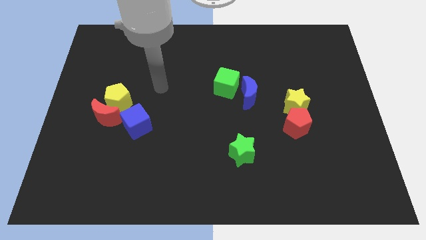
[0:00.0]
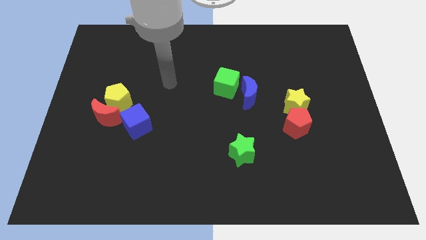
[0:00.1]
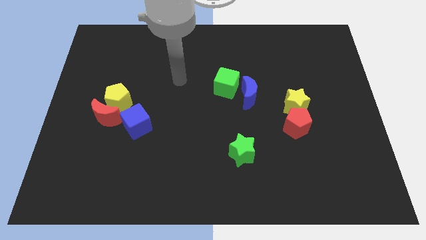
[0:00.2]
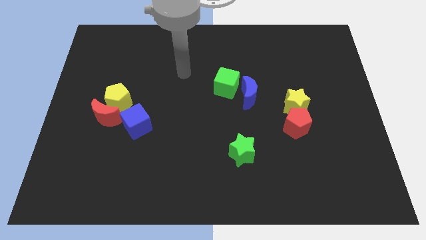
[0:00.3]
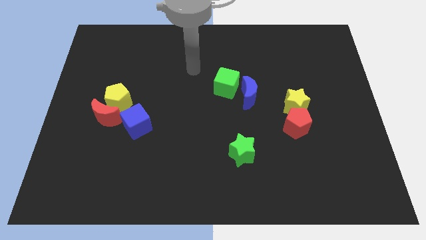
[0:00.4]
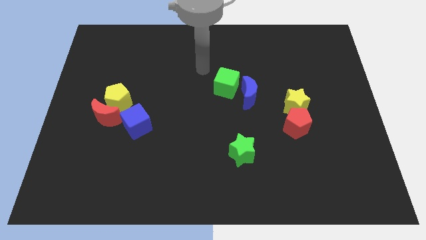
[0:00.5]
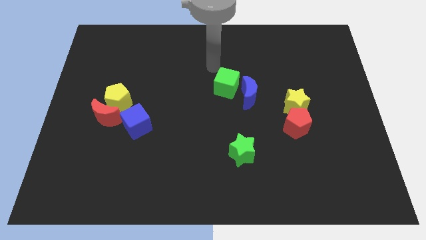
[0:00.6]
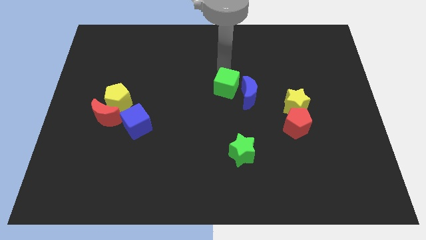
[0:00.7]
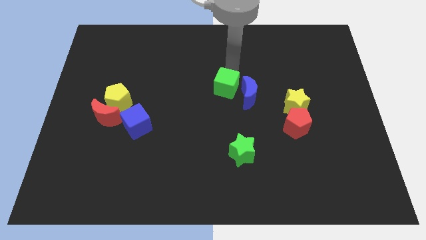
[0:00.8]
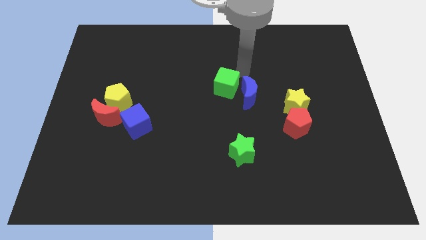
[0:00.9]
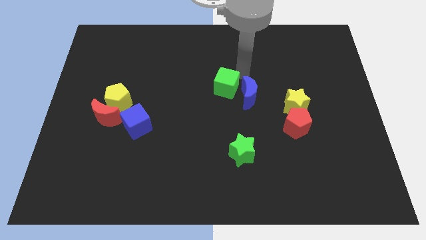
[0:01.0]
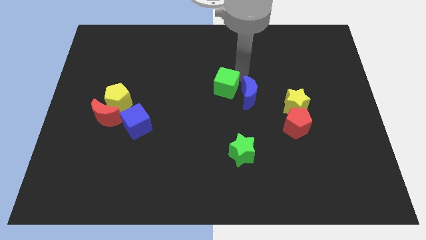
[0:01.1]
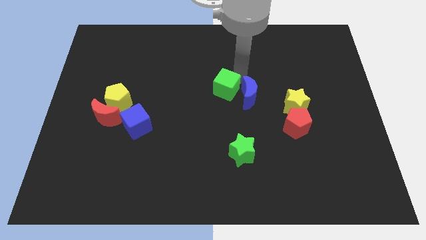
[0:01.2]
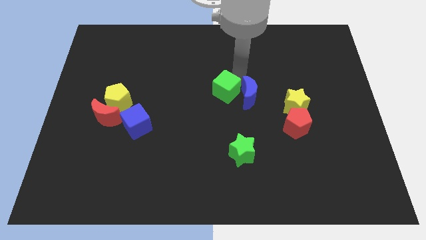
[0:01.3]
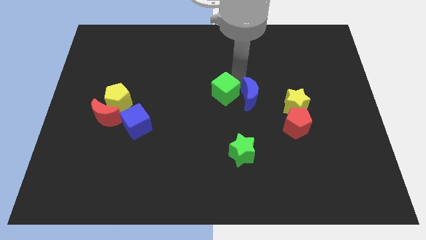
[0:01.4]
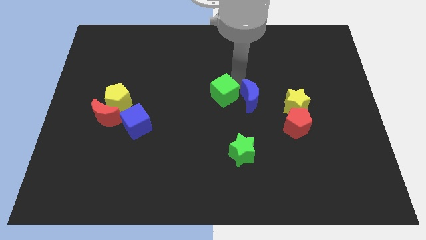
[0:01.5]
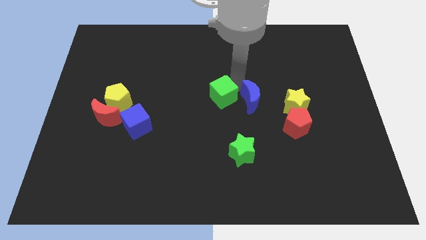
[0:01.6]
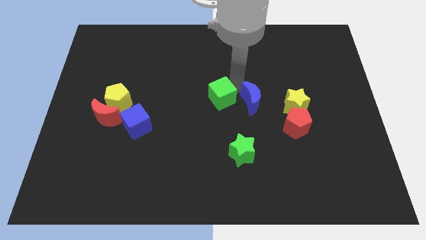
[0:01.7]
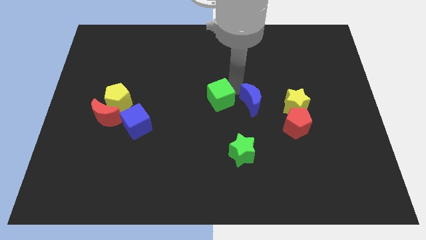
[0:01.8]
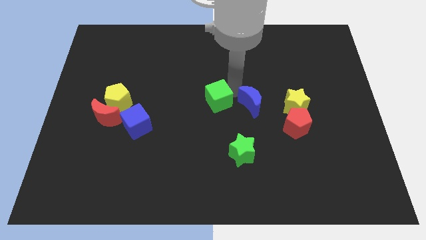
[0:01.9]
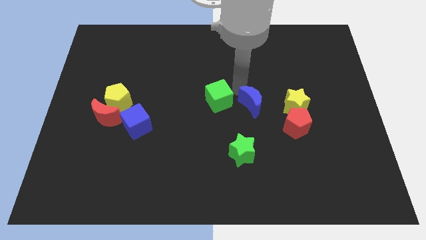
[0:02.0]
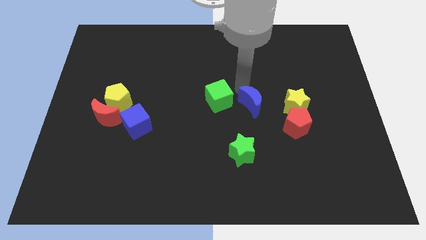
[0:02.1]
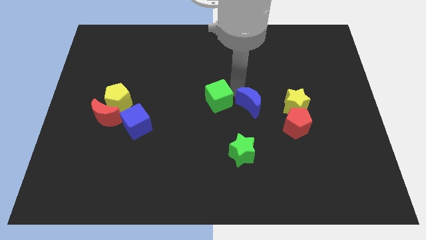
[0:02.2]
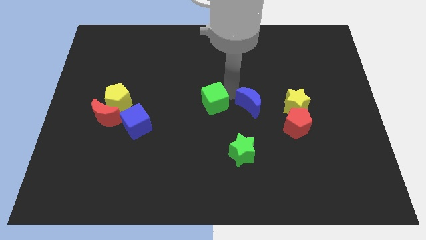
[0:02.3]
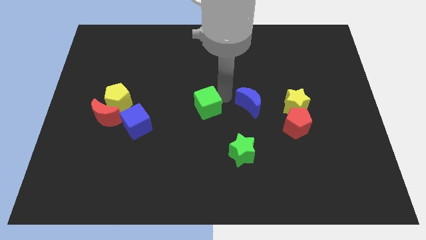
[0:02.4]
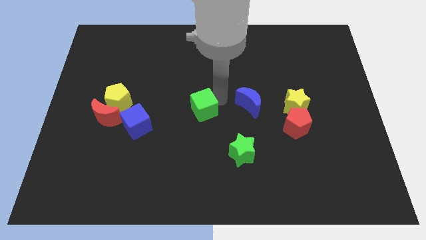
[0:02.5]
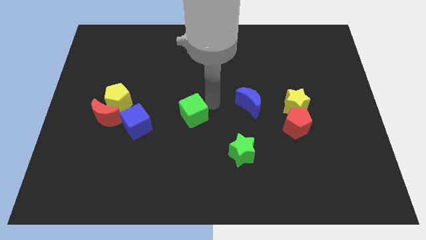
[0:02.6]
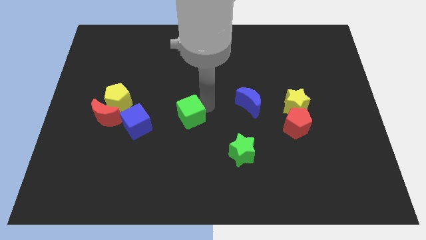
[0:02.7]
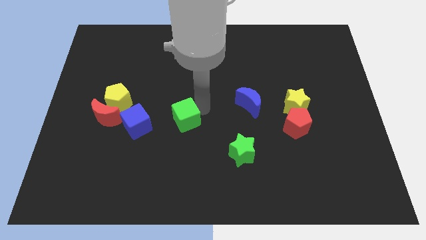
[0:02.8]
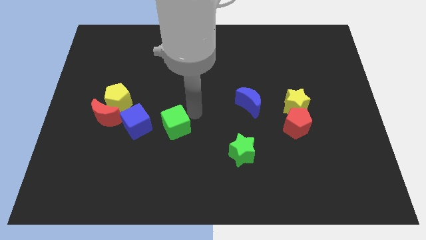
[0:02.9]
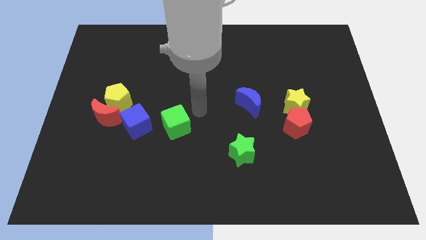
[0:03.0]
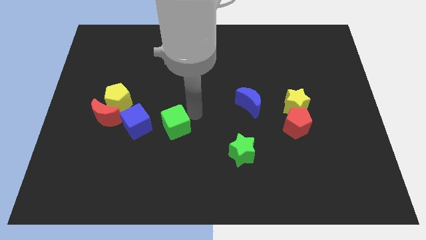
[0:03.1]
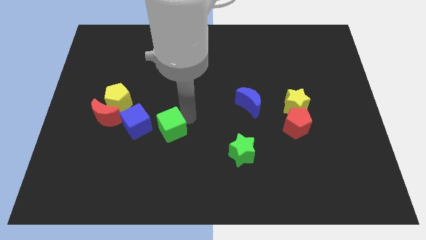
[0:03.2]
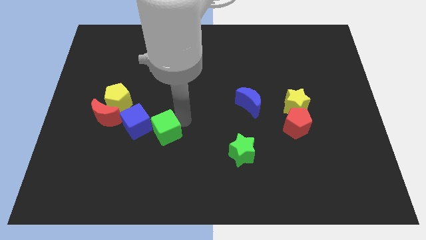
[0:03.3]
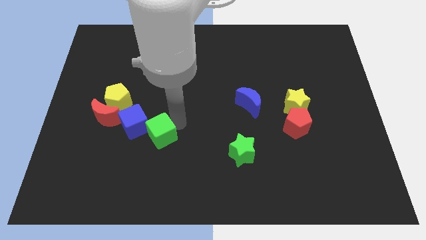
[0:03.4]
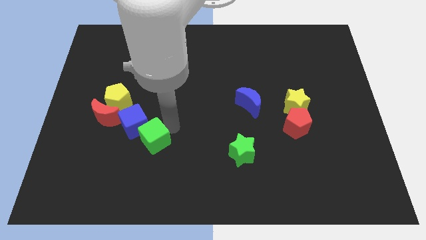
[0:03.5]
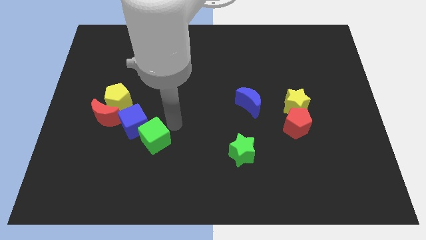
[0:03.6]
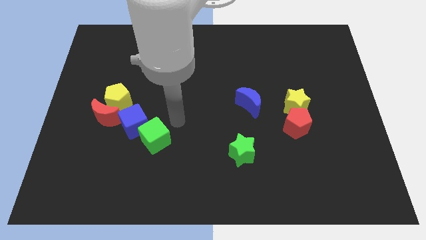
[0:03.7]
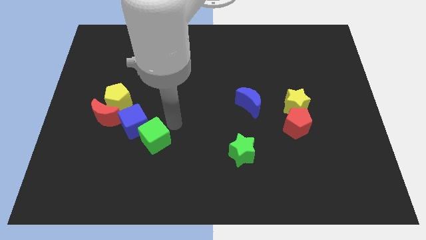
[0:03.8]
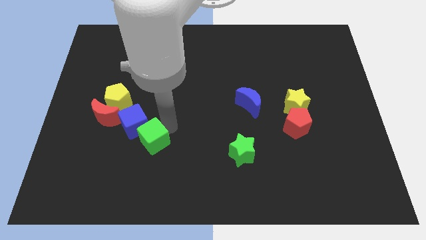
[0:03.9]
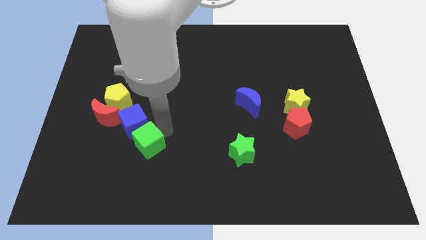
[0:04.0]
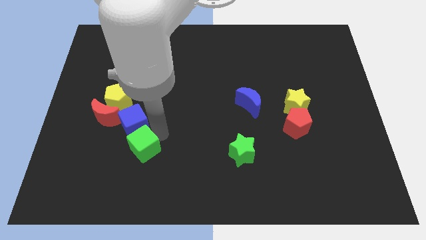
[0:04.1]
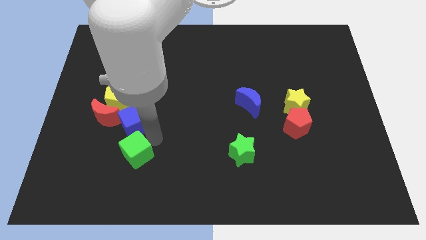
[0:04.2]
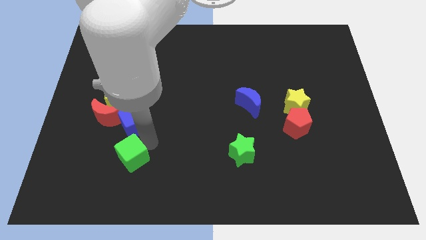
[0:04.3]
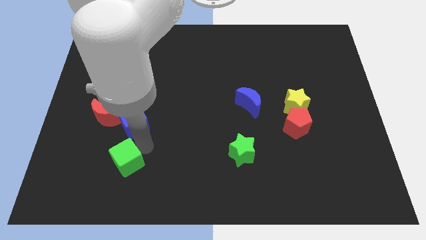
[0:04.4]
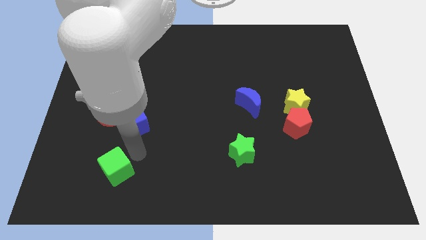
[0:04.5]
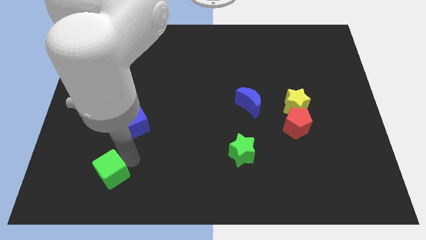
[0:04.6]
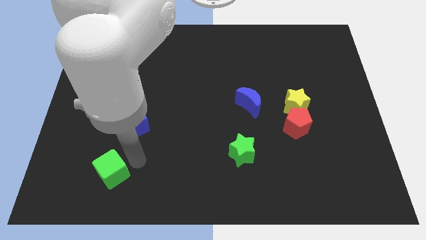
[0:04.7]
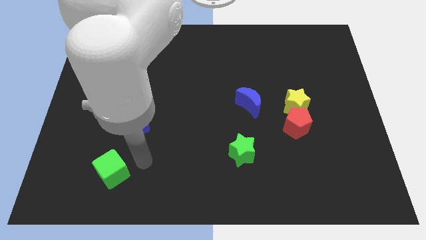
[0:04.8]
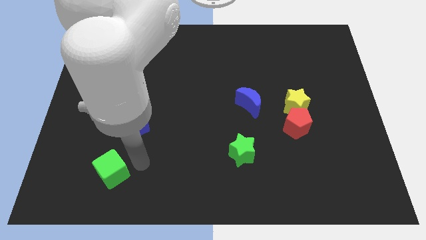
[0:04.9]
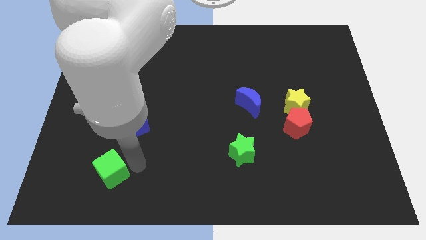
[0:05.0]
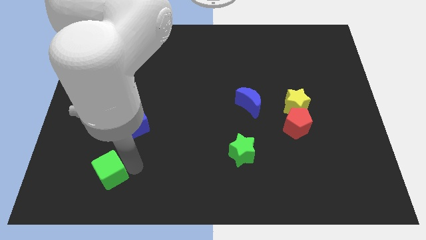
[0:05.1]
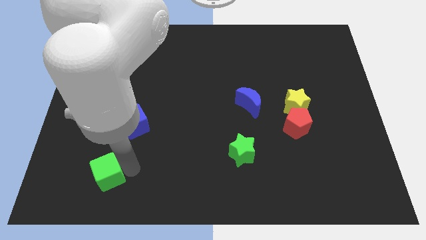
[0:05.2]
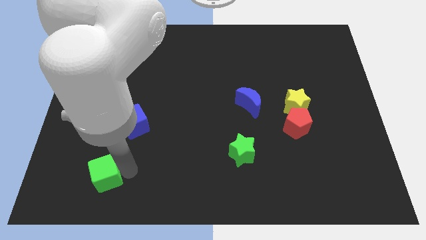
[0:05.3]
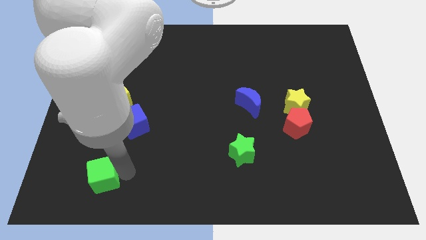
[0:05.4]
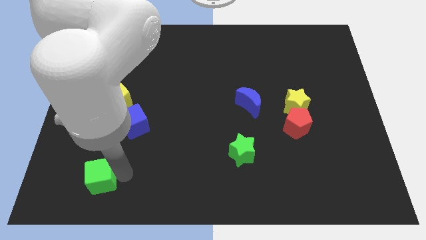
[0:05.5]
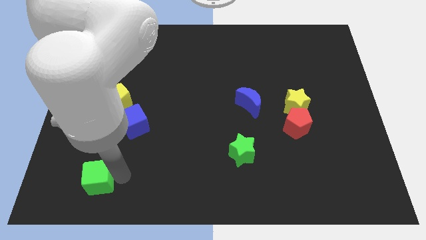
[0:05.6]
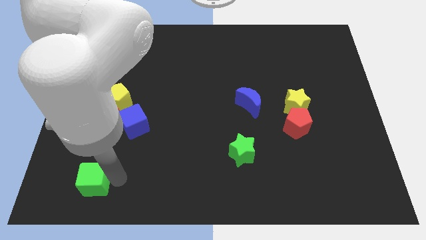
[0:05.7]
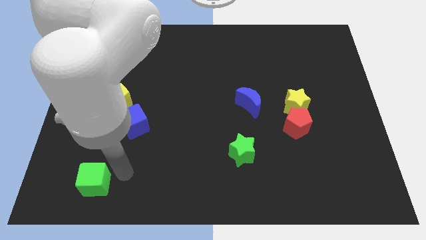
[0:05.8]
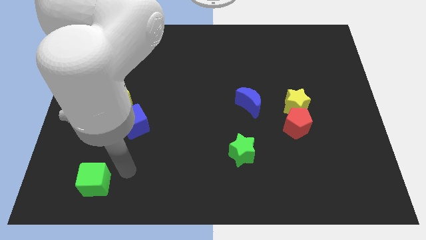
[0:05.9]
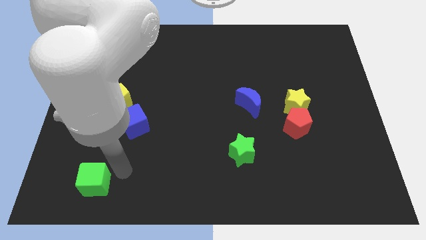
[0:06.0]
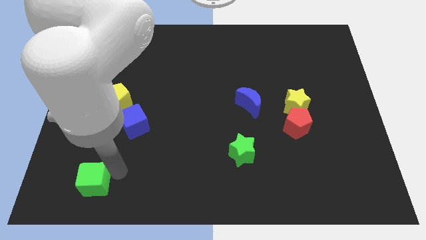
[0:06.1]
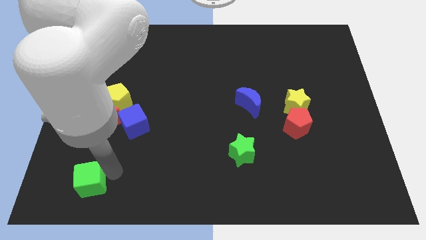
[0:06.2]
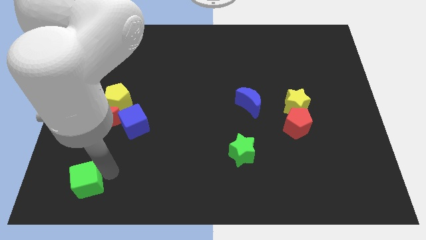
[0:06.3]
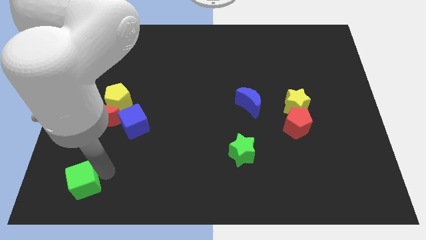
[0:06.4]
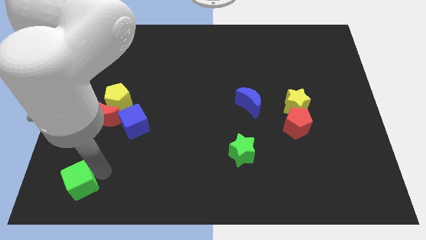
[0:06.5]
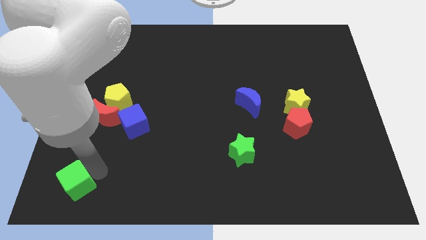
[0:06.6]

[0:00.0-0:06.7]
slide the green cube to the bottom left corner
